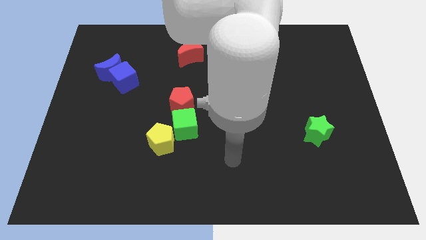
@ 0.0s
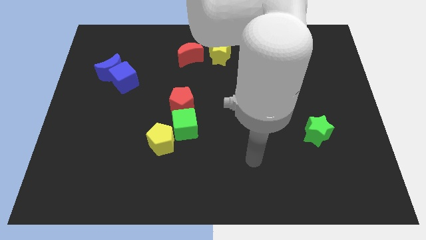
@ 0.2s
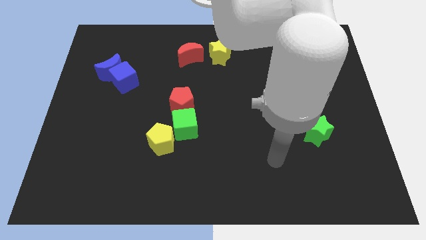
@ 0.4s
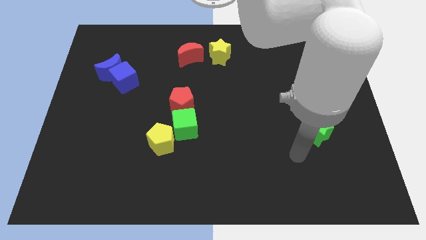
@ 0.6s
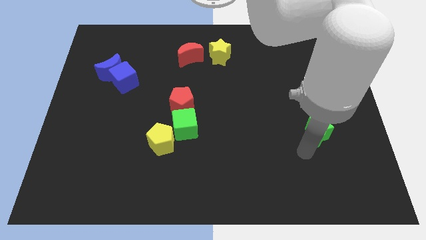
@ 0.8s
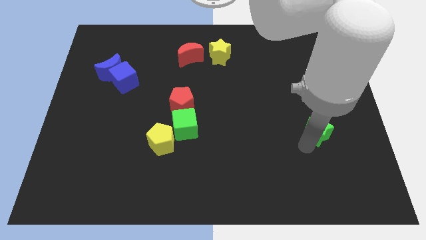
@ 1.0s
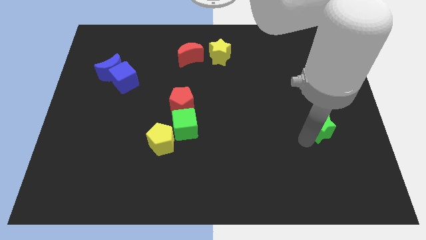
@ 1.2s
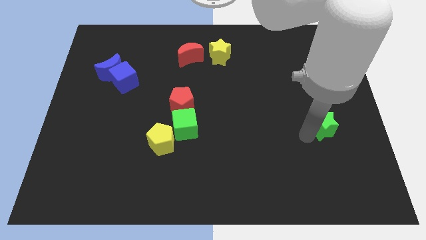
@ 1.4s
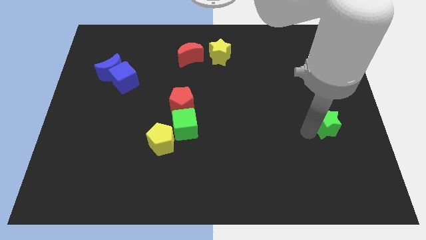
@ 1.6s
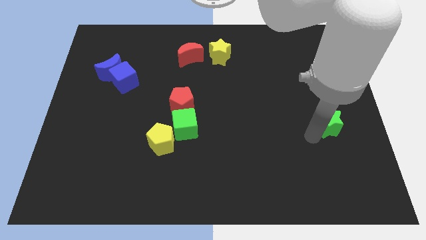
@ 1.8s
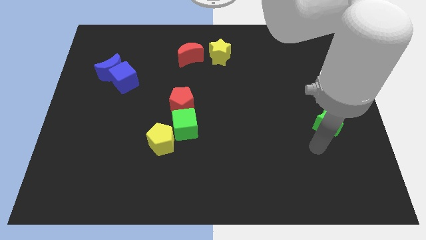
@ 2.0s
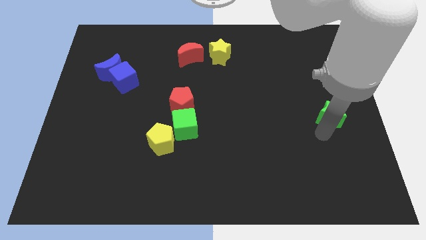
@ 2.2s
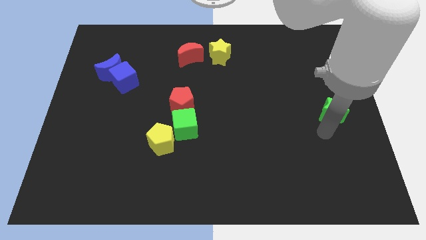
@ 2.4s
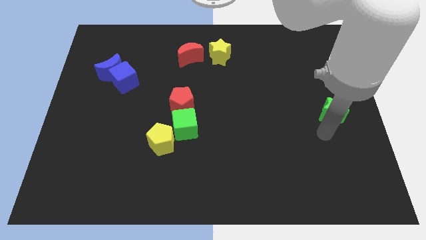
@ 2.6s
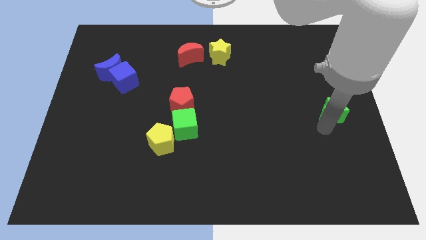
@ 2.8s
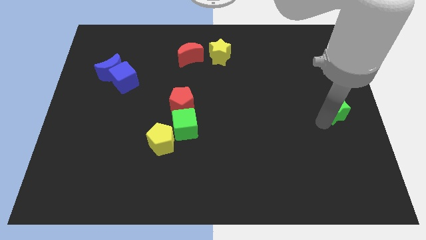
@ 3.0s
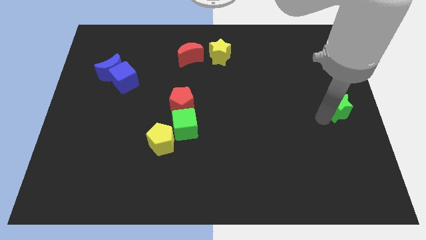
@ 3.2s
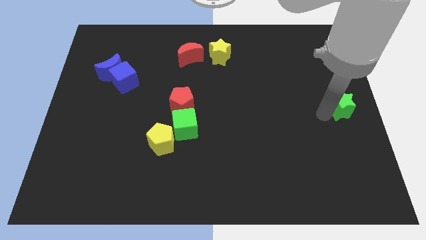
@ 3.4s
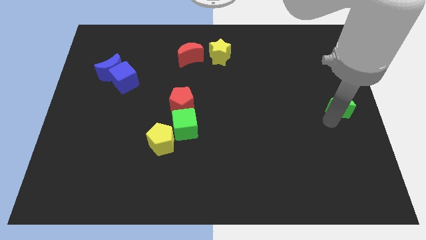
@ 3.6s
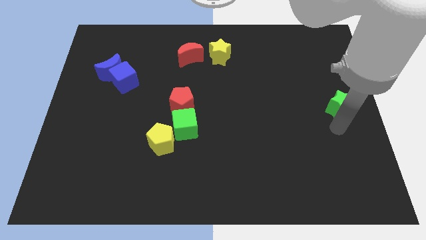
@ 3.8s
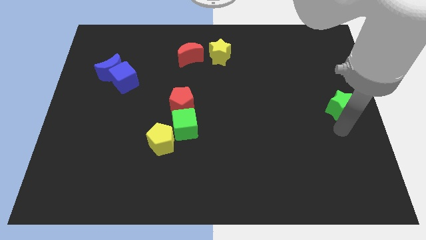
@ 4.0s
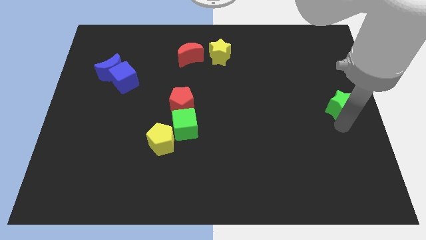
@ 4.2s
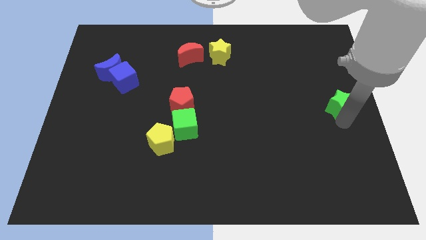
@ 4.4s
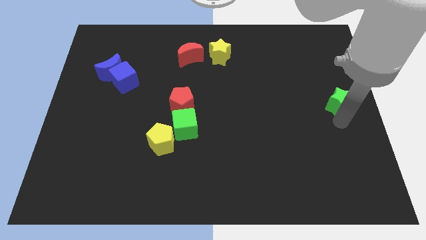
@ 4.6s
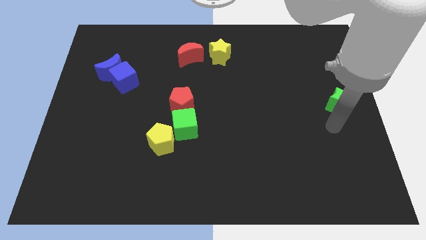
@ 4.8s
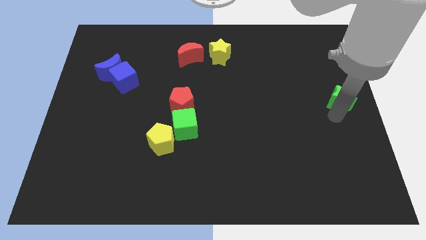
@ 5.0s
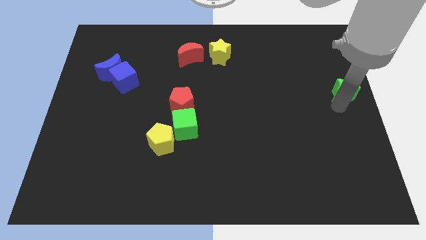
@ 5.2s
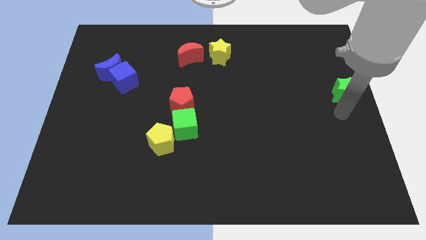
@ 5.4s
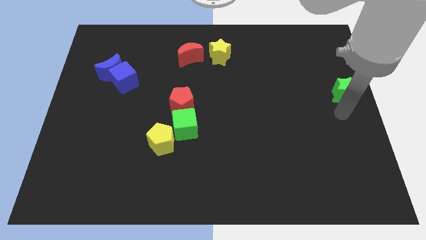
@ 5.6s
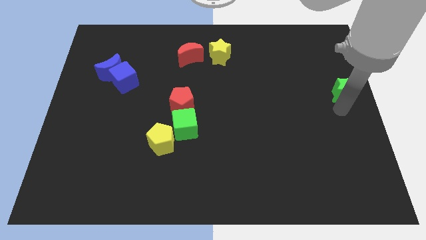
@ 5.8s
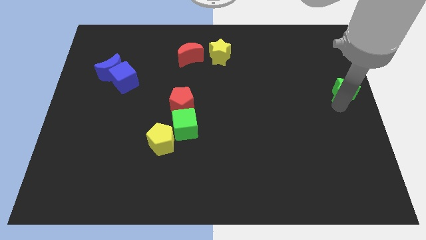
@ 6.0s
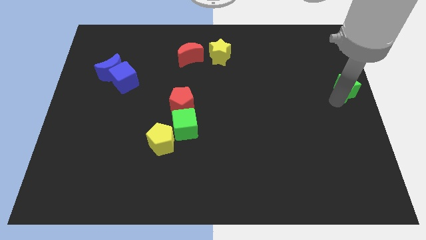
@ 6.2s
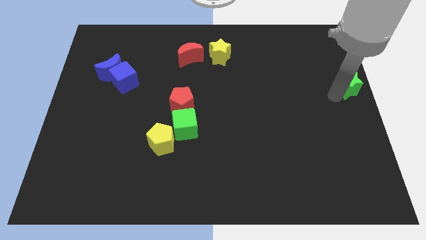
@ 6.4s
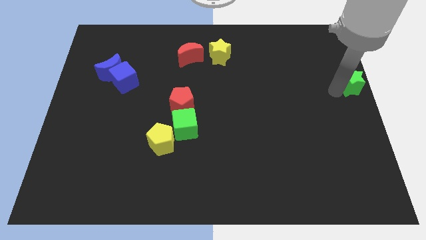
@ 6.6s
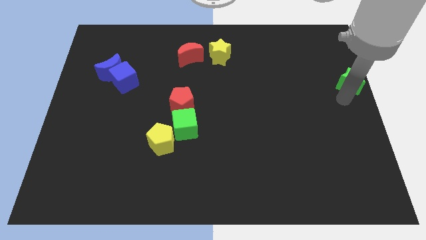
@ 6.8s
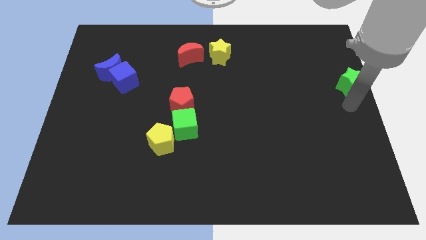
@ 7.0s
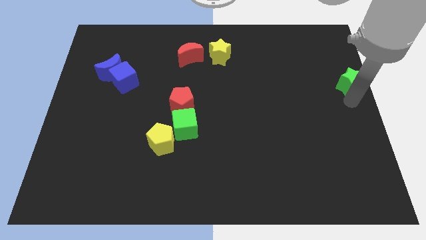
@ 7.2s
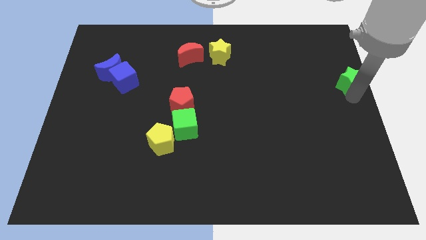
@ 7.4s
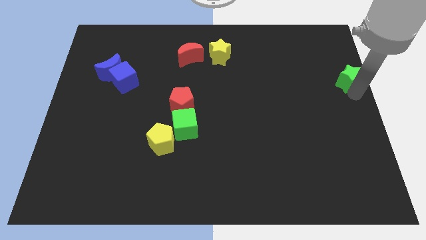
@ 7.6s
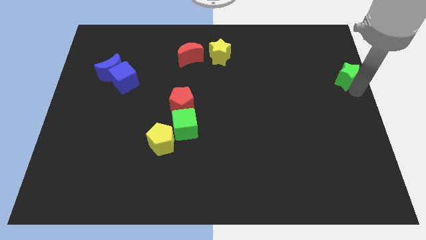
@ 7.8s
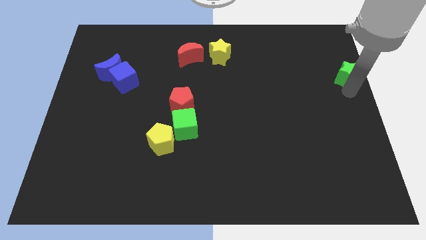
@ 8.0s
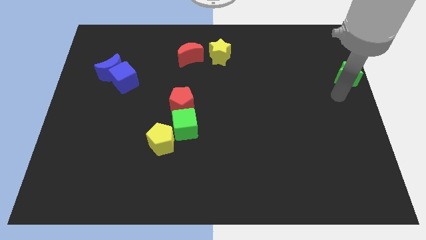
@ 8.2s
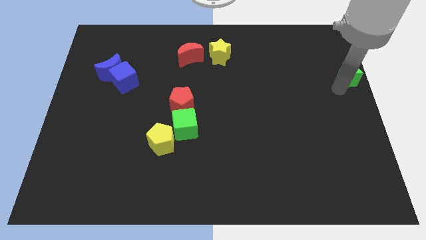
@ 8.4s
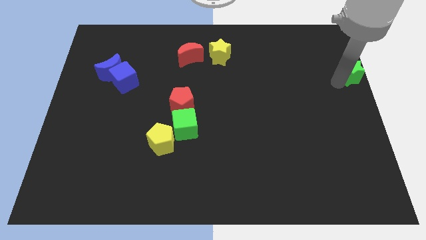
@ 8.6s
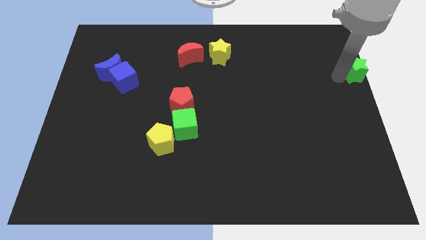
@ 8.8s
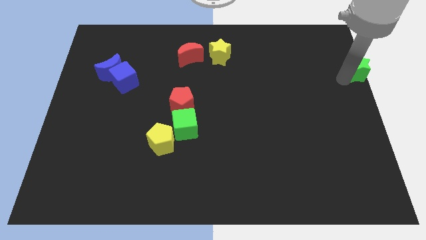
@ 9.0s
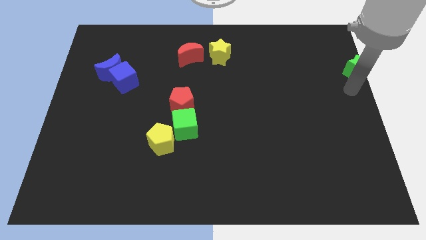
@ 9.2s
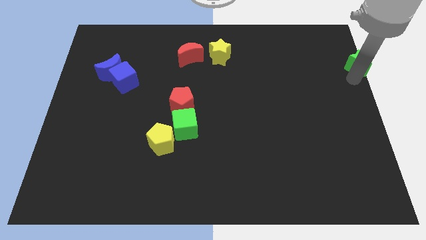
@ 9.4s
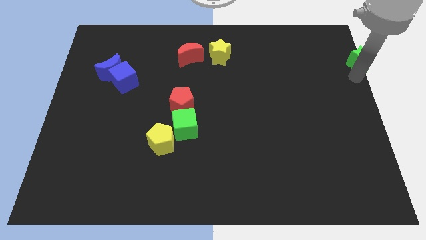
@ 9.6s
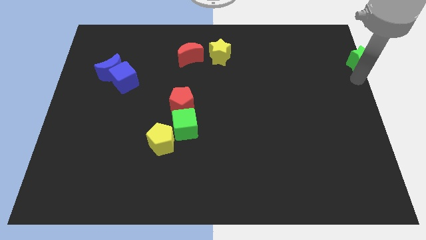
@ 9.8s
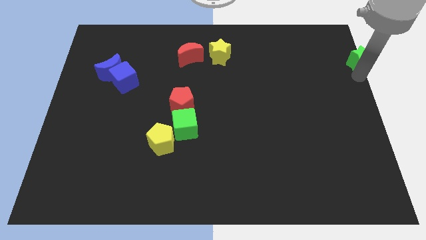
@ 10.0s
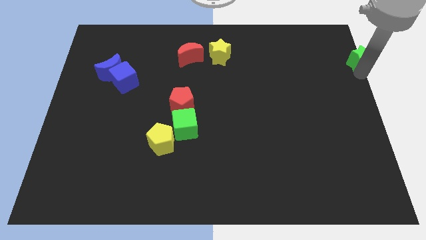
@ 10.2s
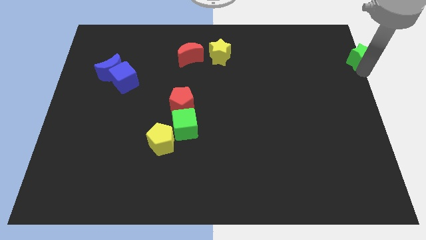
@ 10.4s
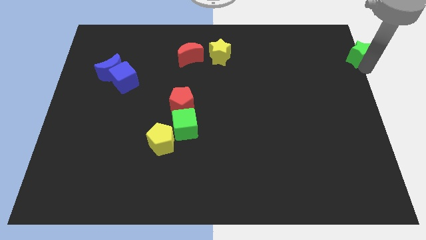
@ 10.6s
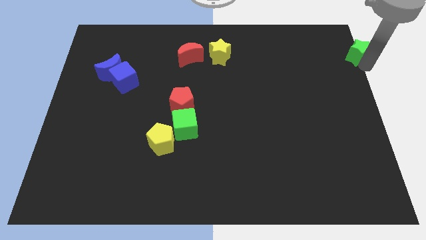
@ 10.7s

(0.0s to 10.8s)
slide the green star to the top right corner

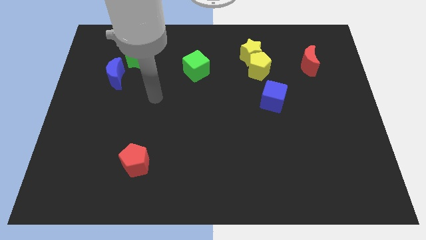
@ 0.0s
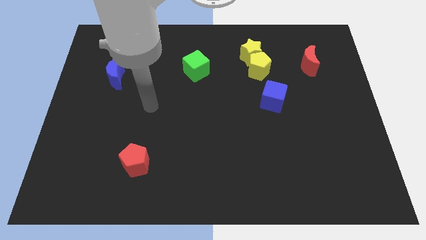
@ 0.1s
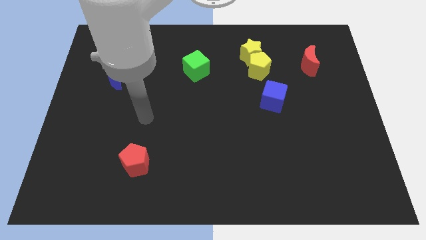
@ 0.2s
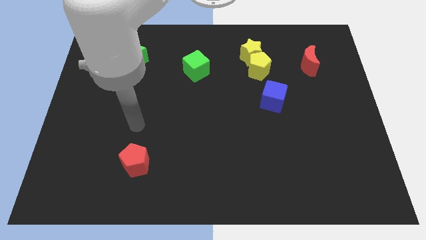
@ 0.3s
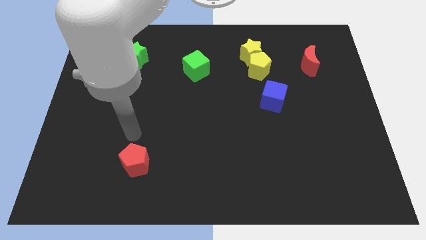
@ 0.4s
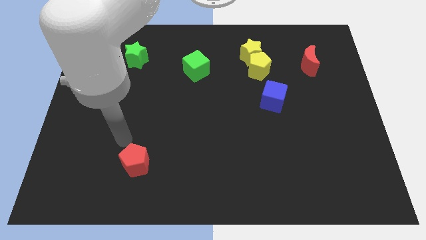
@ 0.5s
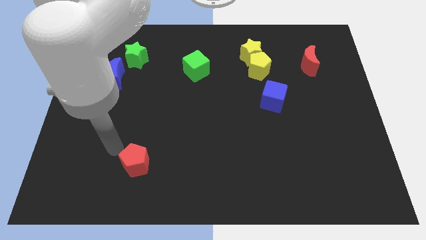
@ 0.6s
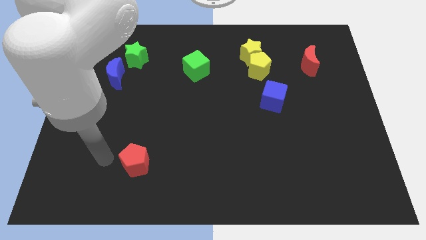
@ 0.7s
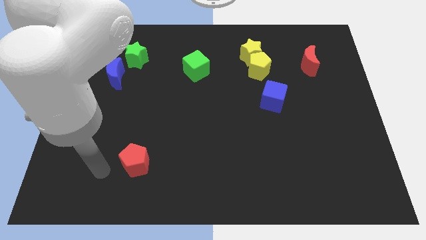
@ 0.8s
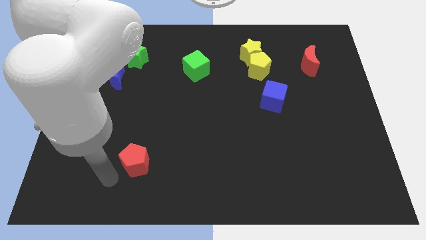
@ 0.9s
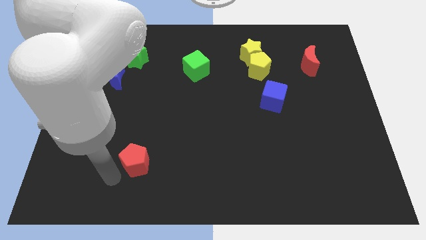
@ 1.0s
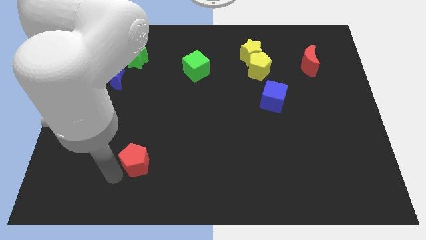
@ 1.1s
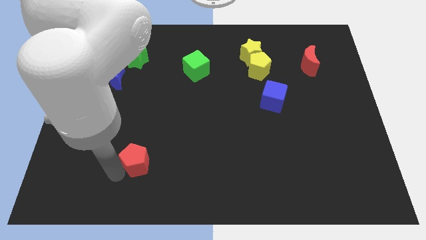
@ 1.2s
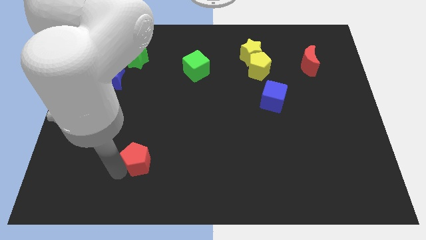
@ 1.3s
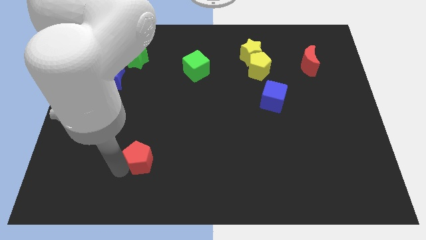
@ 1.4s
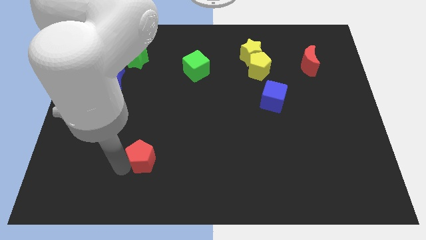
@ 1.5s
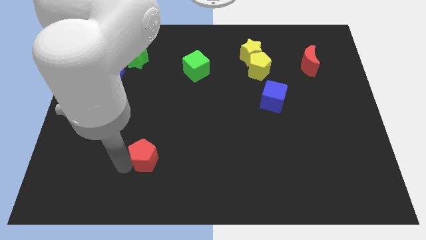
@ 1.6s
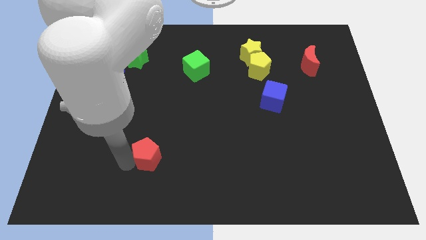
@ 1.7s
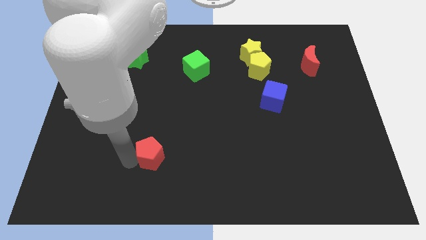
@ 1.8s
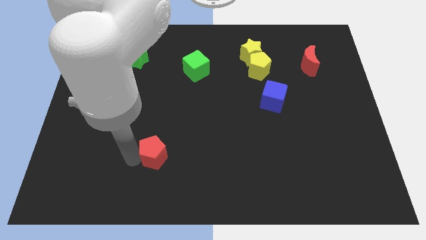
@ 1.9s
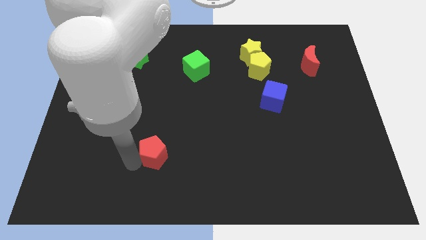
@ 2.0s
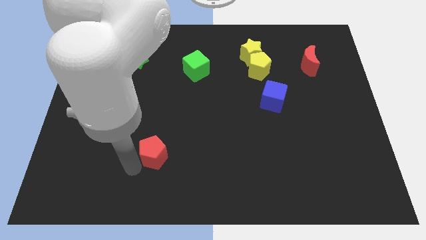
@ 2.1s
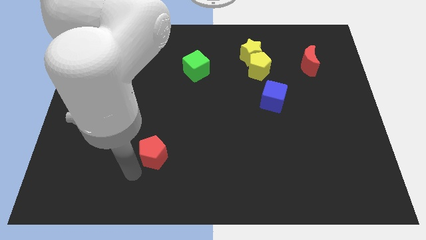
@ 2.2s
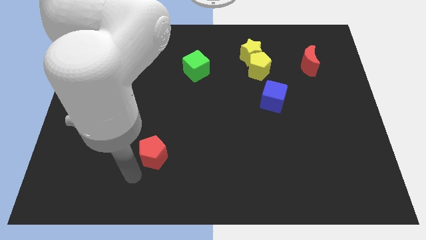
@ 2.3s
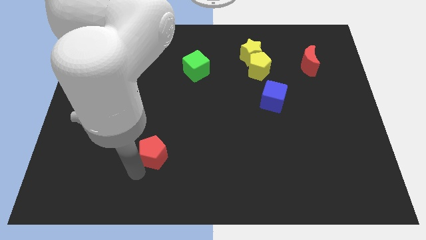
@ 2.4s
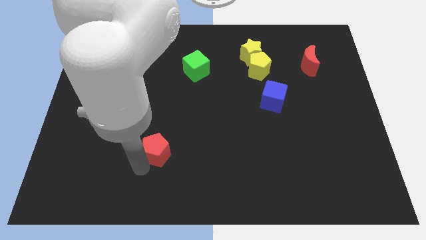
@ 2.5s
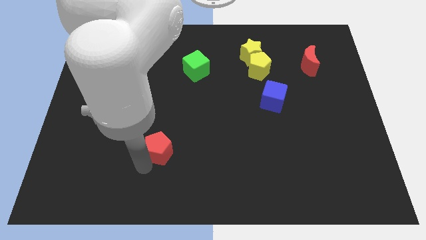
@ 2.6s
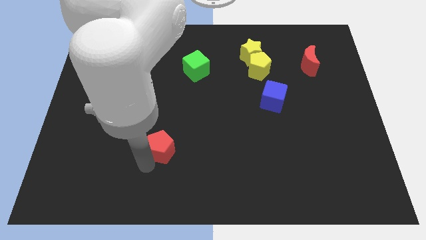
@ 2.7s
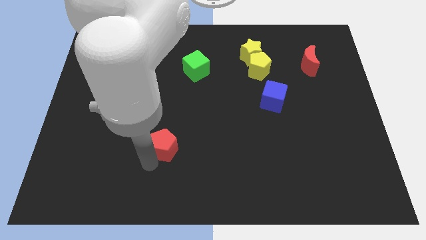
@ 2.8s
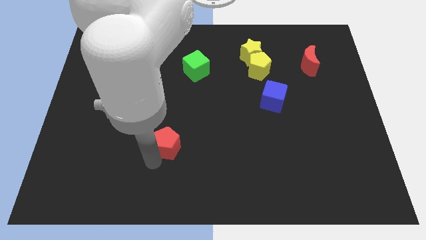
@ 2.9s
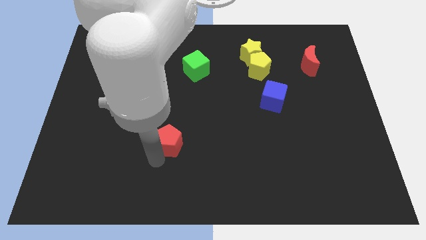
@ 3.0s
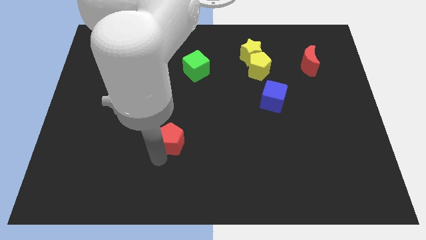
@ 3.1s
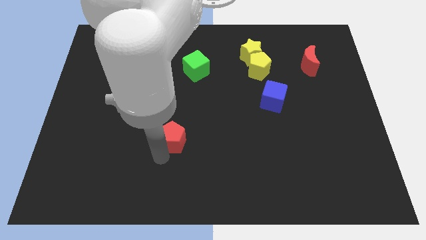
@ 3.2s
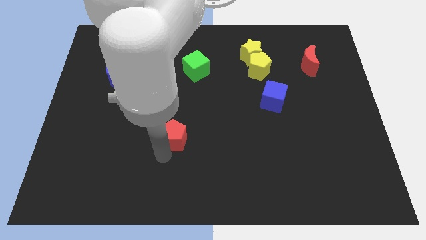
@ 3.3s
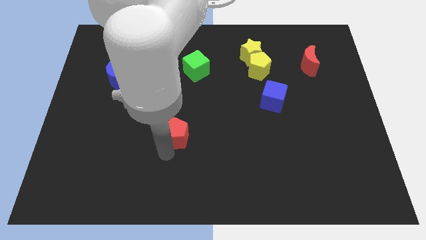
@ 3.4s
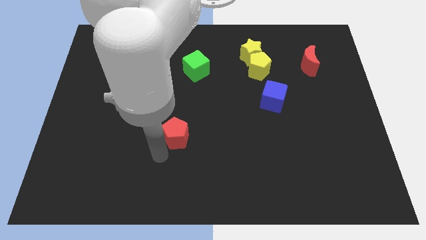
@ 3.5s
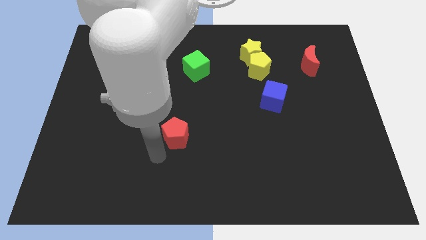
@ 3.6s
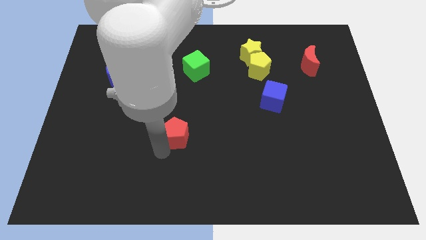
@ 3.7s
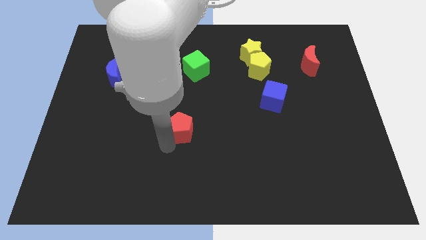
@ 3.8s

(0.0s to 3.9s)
put the red pentagon to the middle of the board
